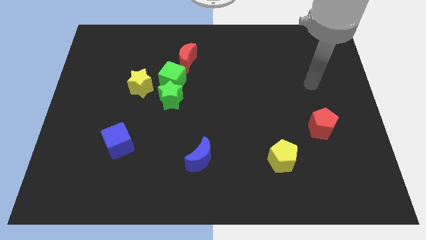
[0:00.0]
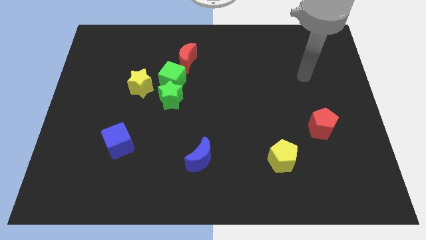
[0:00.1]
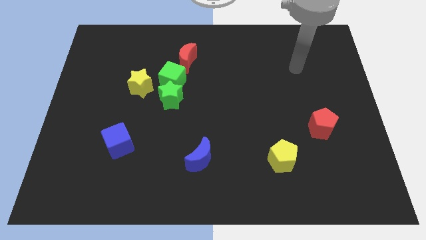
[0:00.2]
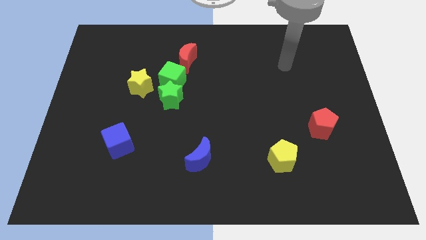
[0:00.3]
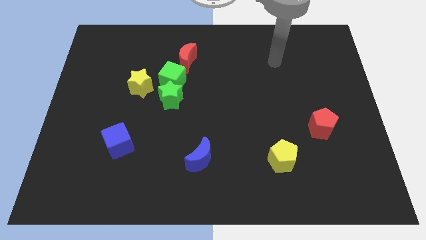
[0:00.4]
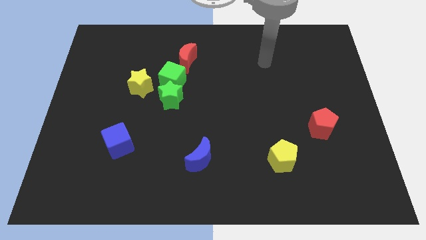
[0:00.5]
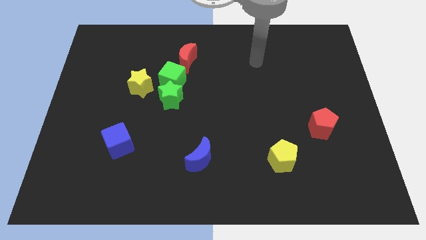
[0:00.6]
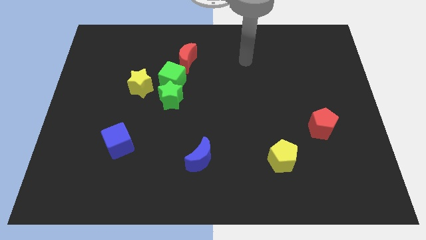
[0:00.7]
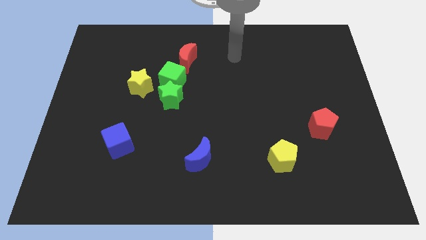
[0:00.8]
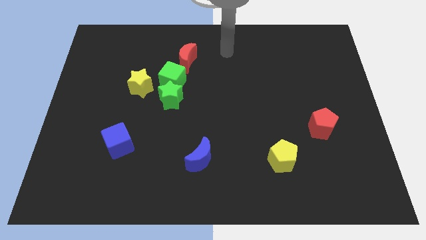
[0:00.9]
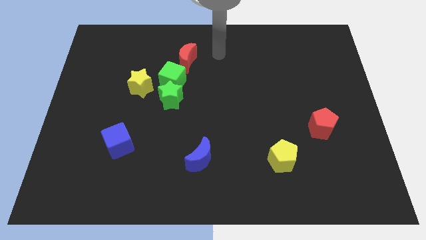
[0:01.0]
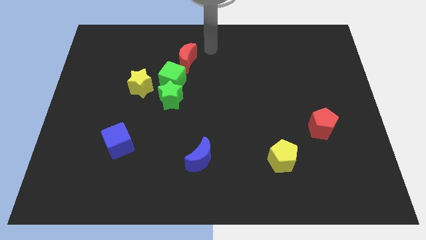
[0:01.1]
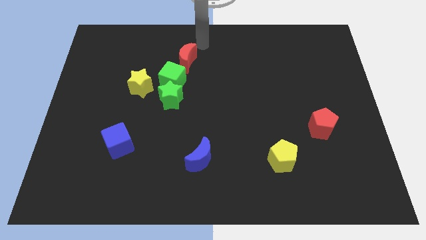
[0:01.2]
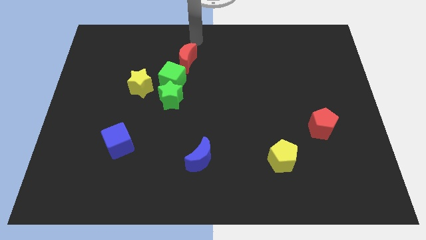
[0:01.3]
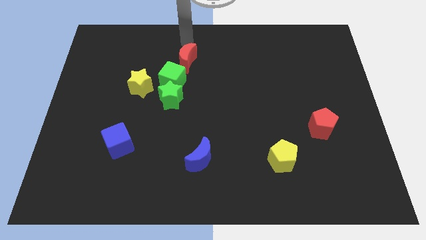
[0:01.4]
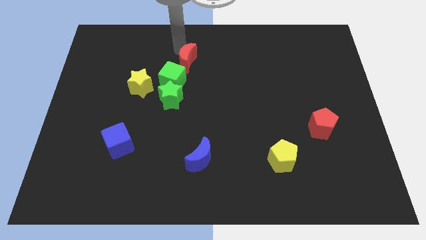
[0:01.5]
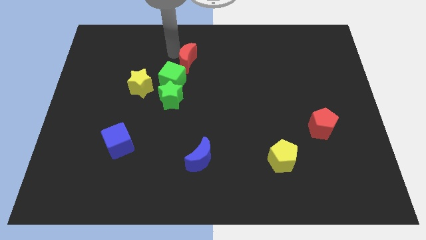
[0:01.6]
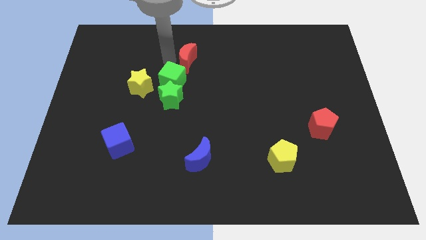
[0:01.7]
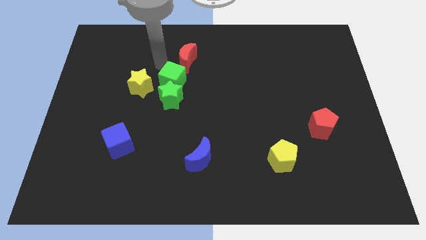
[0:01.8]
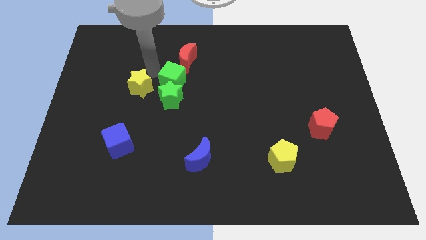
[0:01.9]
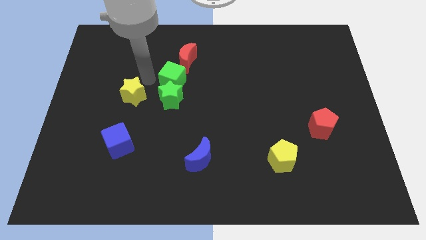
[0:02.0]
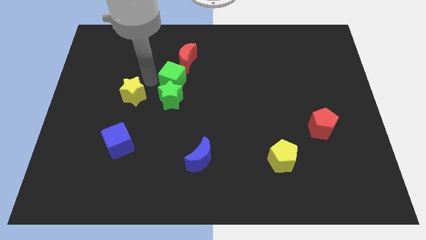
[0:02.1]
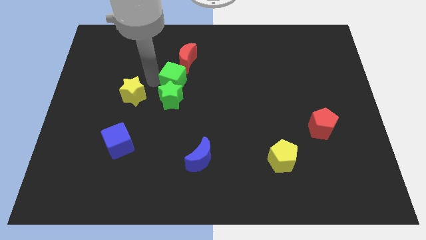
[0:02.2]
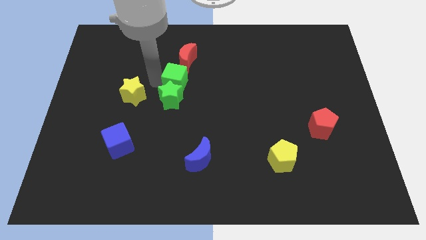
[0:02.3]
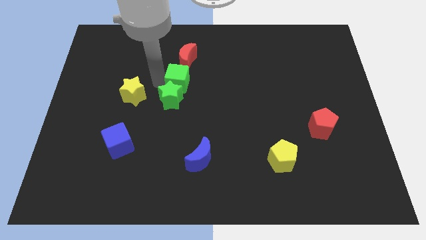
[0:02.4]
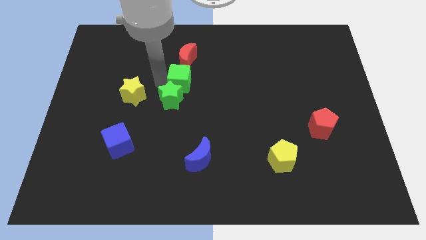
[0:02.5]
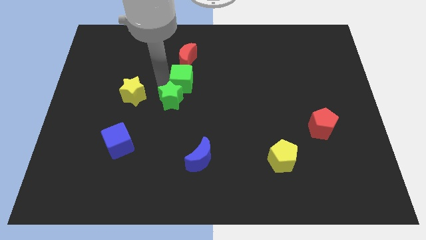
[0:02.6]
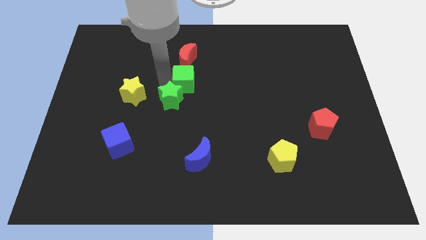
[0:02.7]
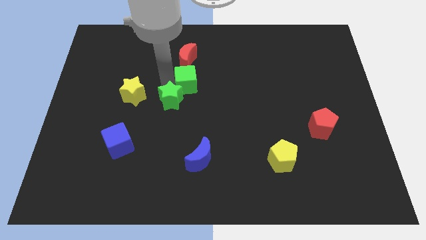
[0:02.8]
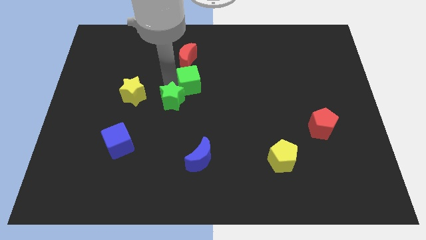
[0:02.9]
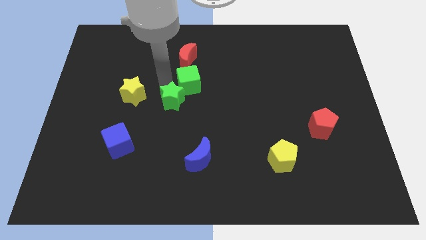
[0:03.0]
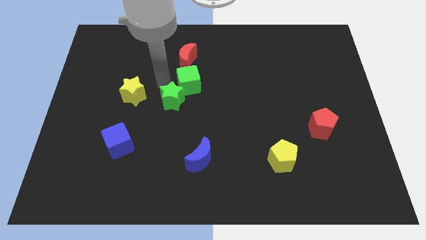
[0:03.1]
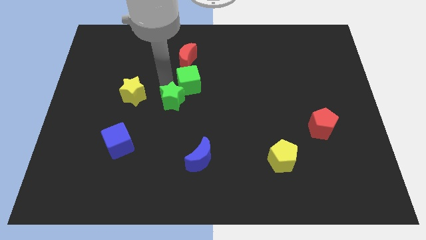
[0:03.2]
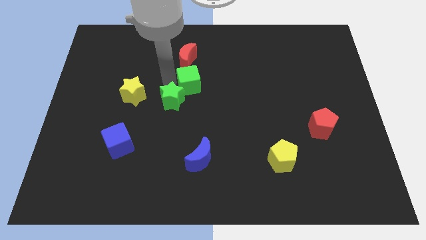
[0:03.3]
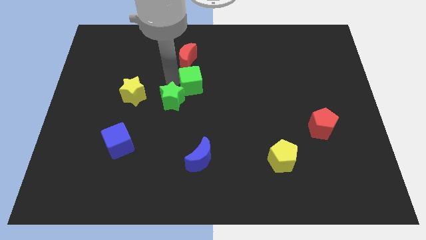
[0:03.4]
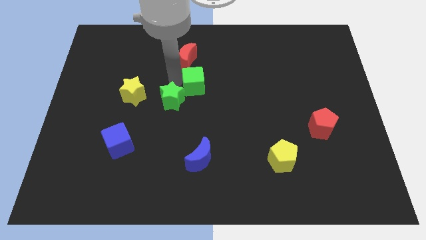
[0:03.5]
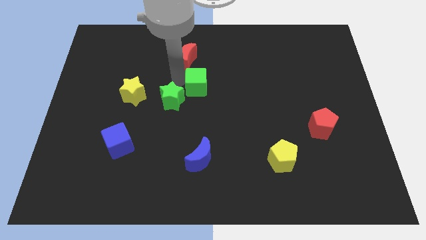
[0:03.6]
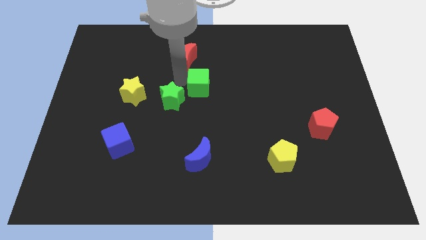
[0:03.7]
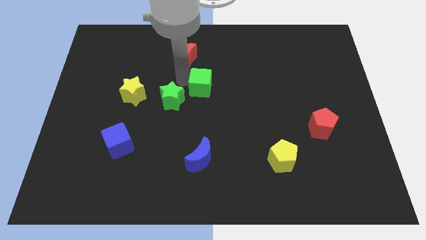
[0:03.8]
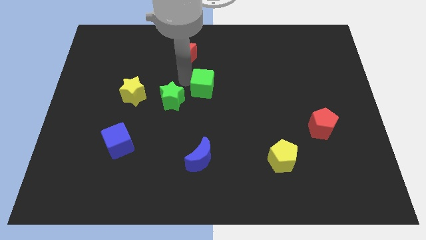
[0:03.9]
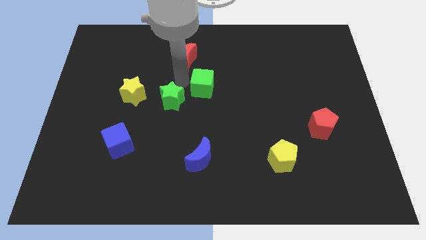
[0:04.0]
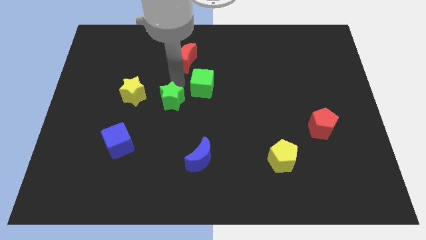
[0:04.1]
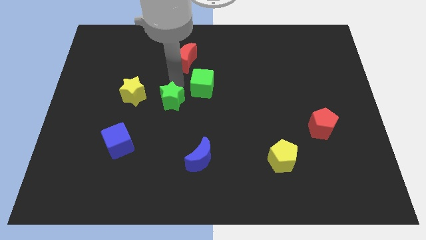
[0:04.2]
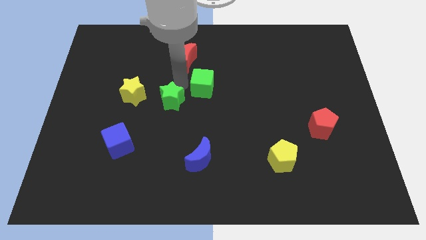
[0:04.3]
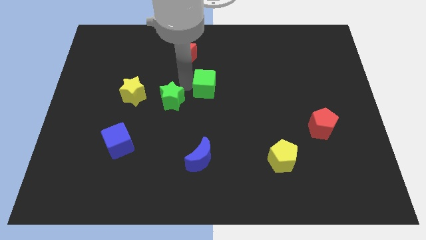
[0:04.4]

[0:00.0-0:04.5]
pull the green cube apart from the green star, red moon, and yellow star

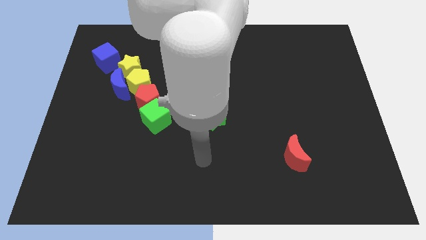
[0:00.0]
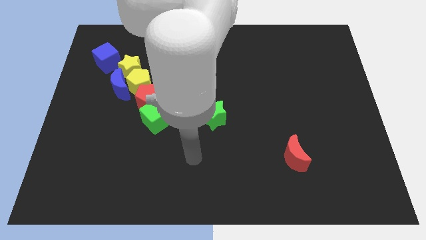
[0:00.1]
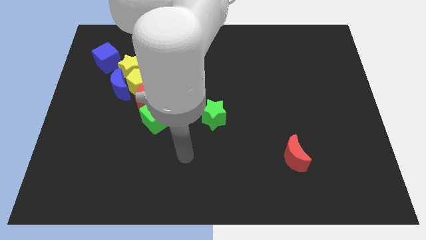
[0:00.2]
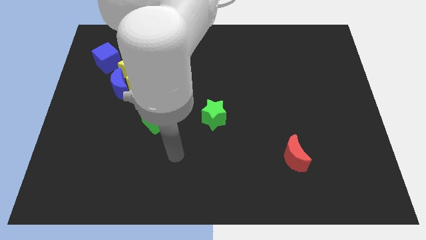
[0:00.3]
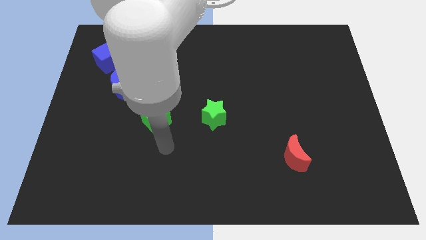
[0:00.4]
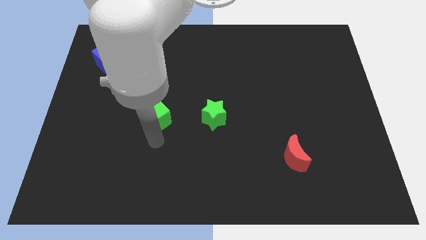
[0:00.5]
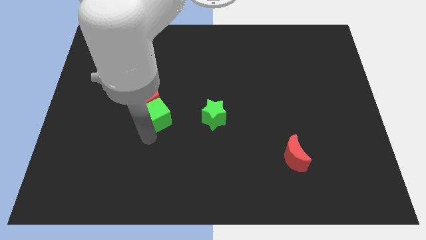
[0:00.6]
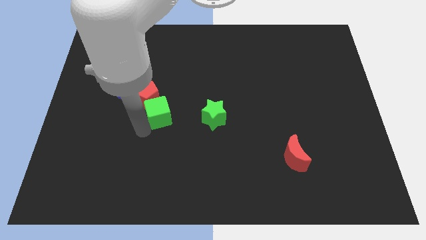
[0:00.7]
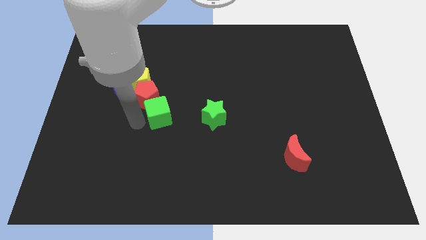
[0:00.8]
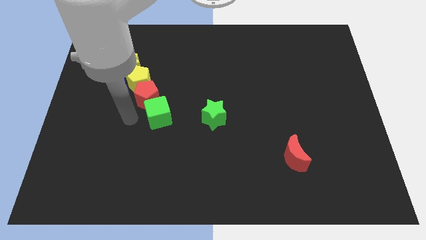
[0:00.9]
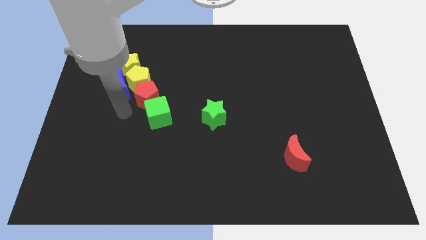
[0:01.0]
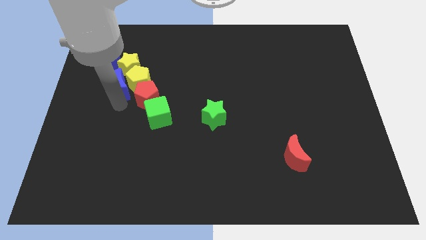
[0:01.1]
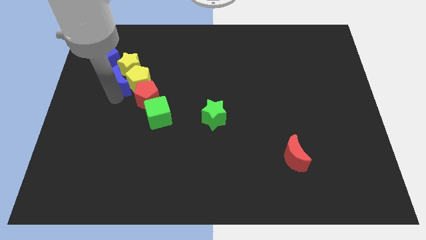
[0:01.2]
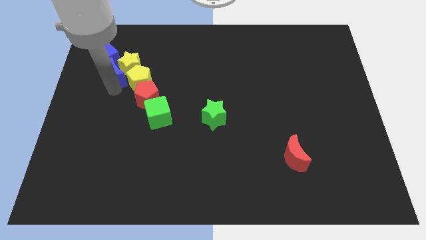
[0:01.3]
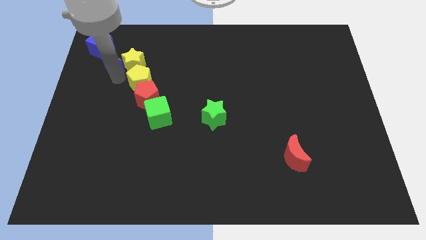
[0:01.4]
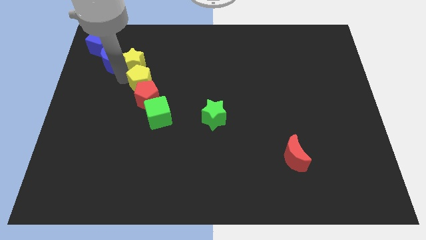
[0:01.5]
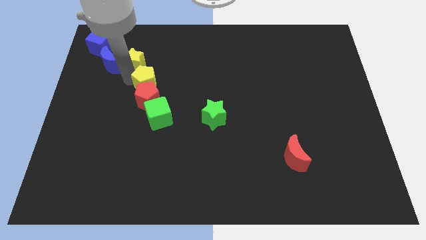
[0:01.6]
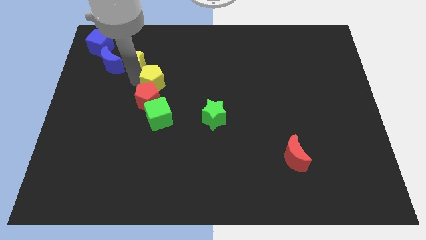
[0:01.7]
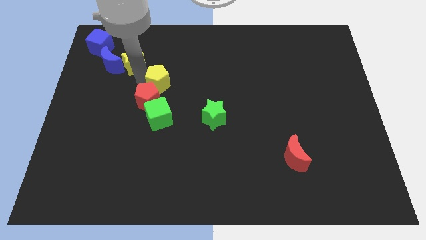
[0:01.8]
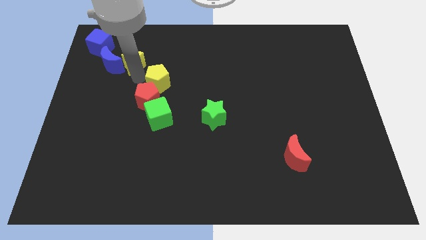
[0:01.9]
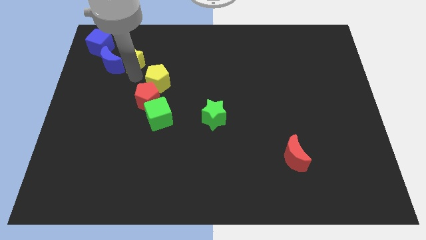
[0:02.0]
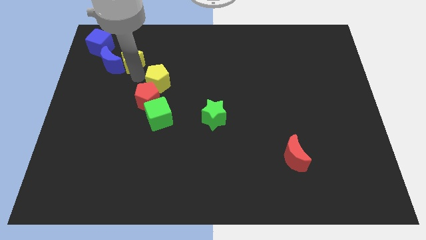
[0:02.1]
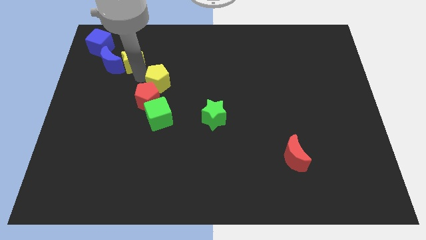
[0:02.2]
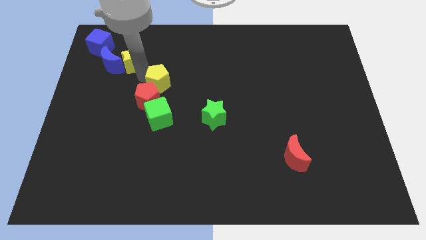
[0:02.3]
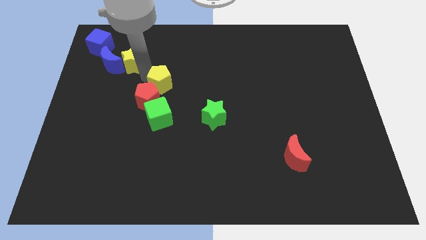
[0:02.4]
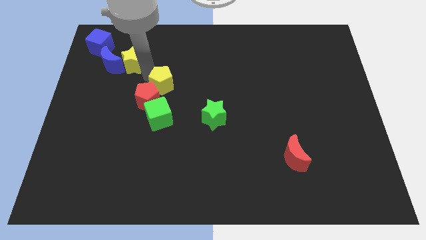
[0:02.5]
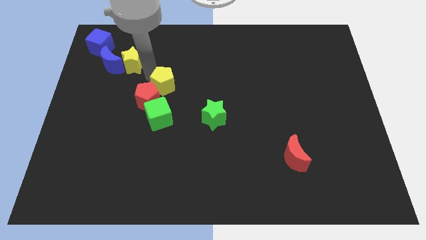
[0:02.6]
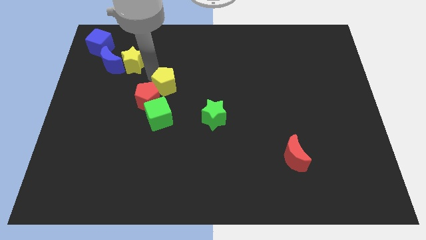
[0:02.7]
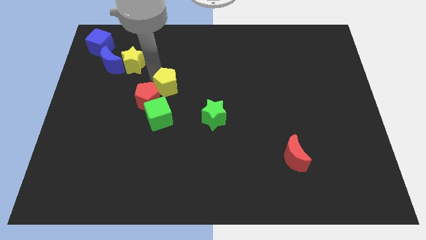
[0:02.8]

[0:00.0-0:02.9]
move the yellow pentagon away from the group of blocks

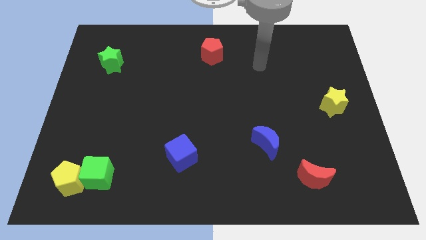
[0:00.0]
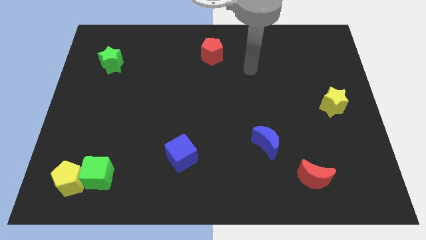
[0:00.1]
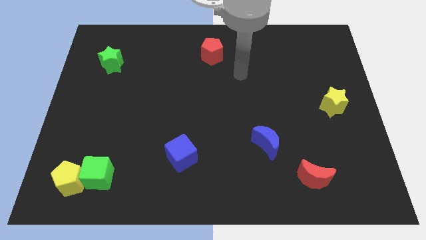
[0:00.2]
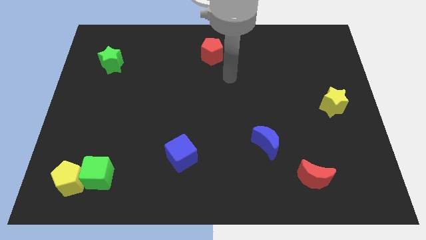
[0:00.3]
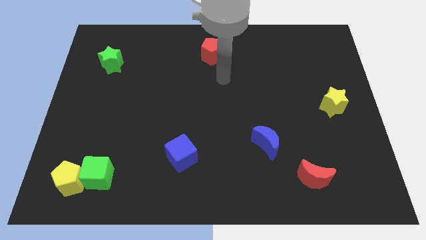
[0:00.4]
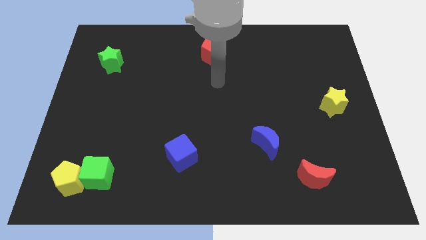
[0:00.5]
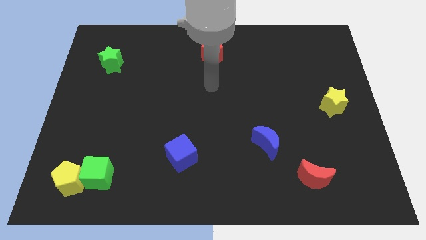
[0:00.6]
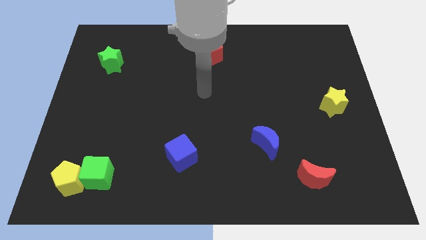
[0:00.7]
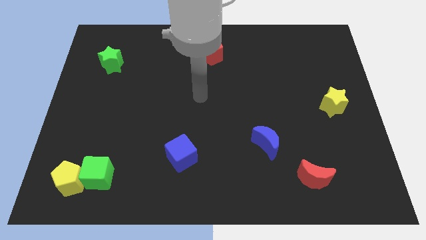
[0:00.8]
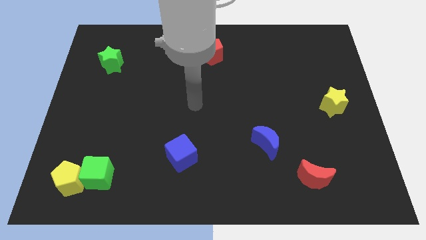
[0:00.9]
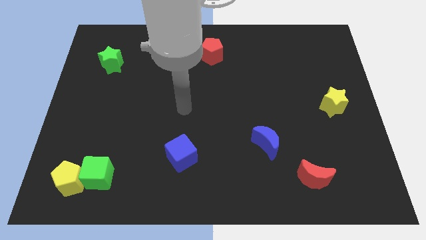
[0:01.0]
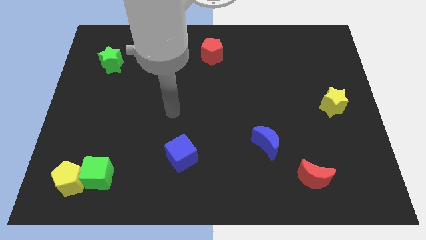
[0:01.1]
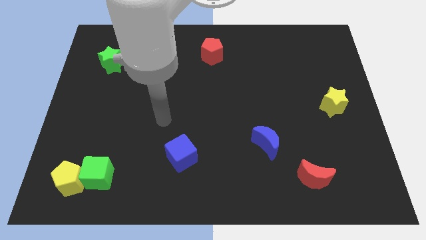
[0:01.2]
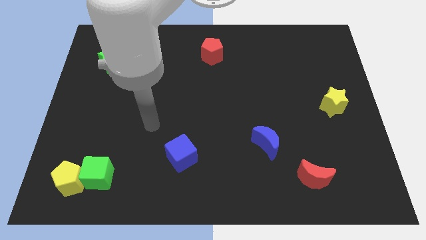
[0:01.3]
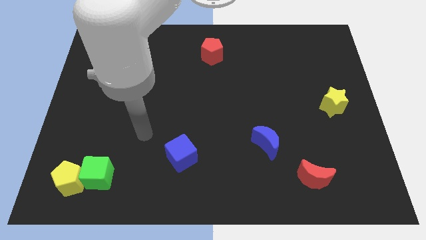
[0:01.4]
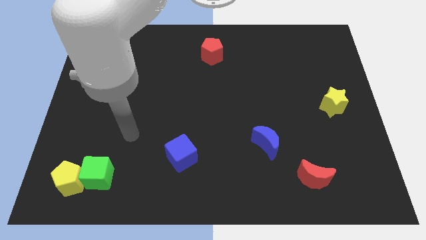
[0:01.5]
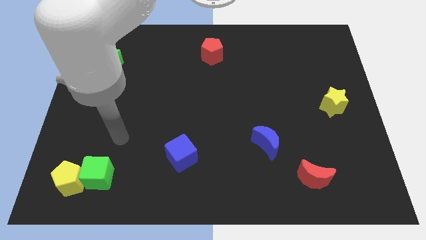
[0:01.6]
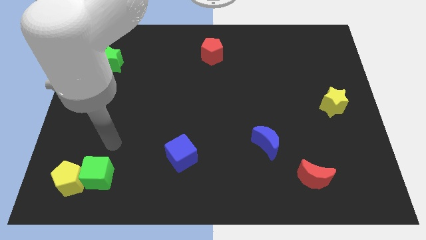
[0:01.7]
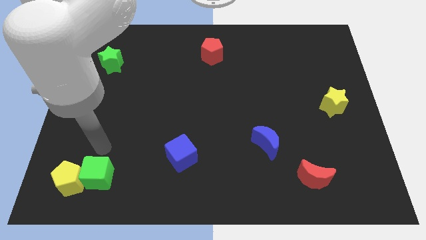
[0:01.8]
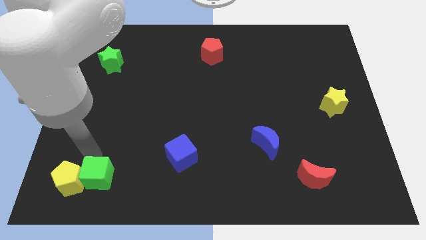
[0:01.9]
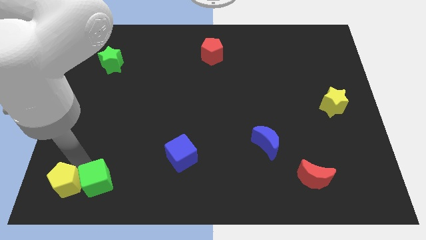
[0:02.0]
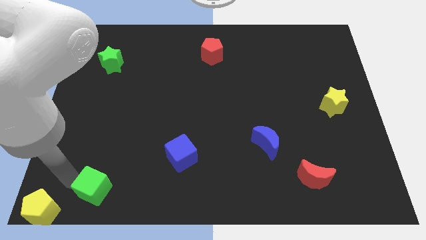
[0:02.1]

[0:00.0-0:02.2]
separate the green cube from the yellow pentagon
